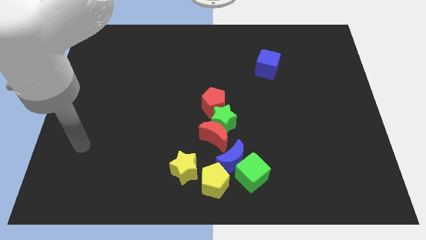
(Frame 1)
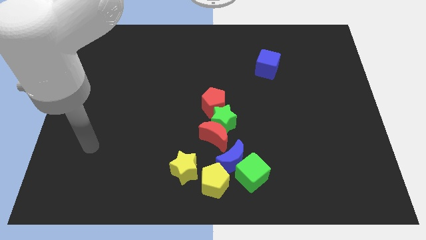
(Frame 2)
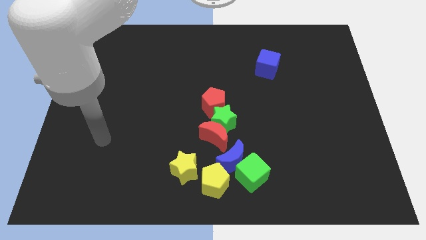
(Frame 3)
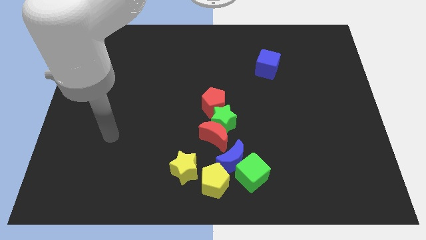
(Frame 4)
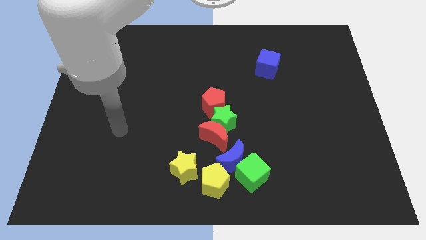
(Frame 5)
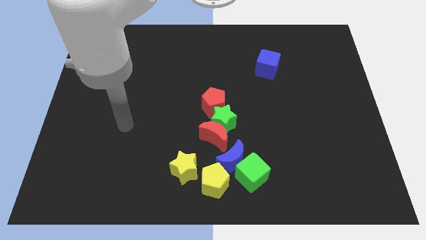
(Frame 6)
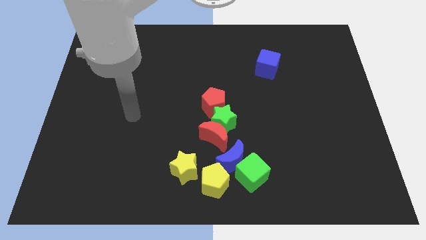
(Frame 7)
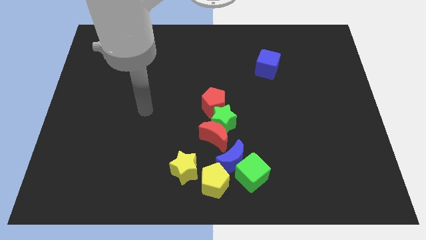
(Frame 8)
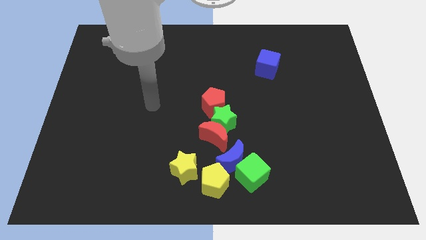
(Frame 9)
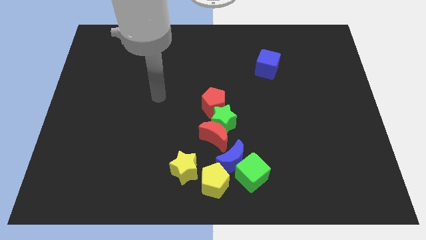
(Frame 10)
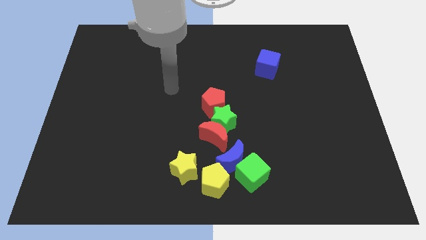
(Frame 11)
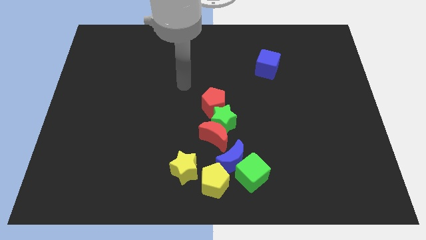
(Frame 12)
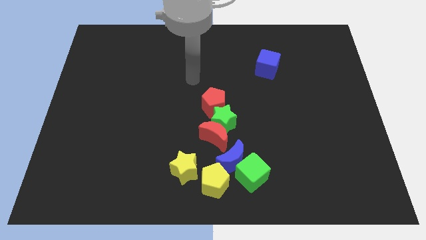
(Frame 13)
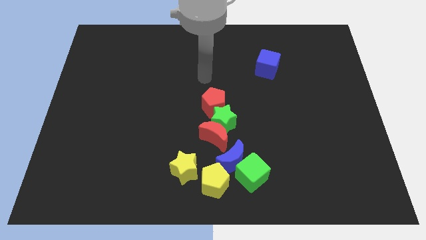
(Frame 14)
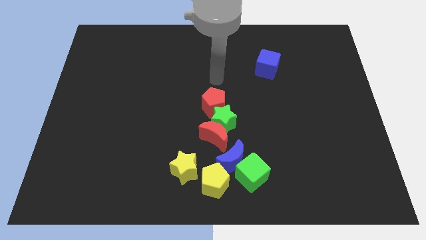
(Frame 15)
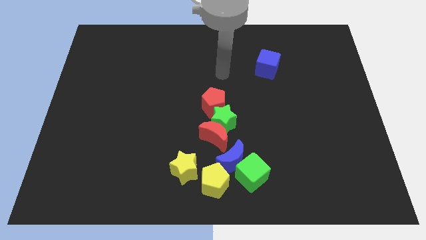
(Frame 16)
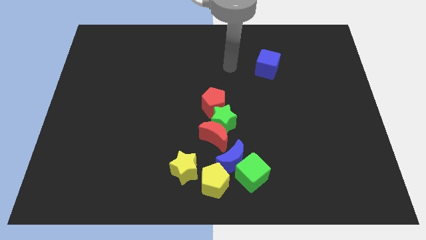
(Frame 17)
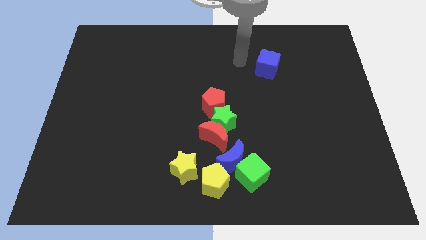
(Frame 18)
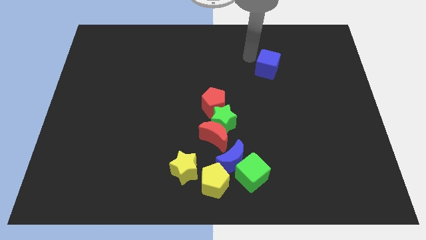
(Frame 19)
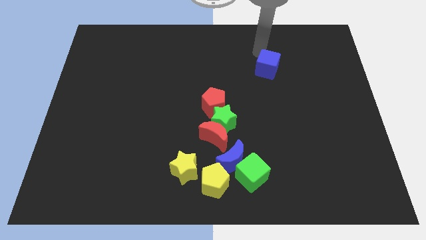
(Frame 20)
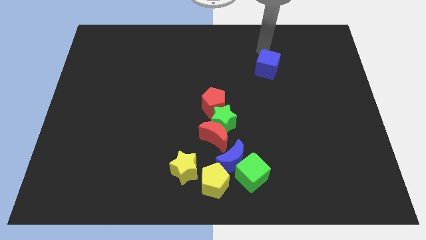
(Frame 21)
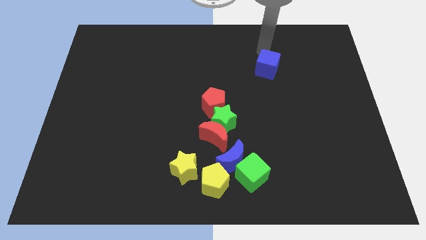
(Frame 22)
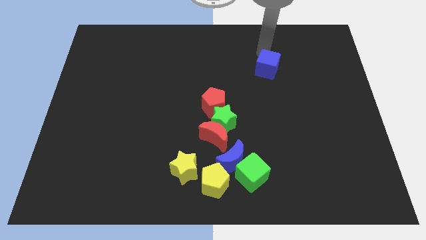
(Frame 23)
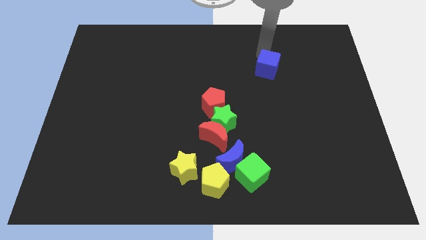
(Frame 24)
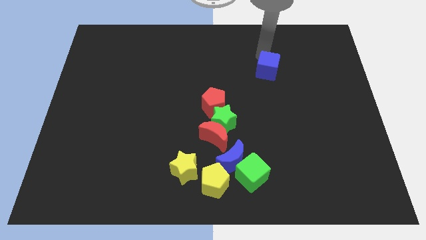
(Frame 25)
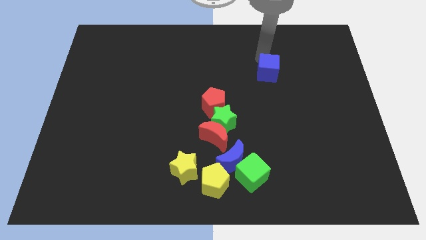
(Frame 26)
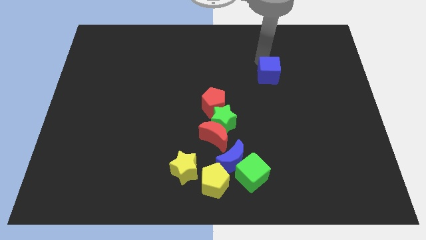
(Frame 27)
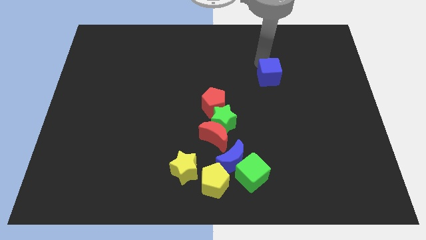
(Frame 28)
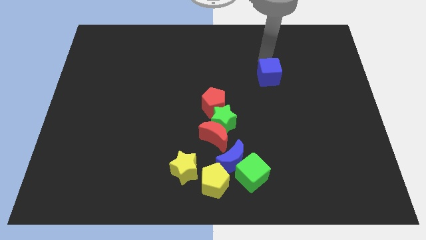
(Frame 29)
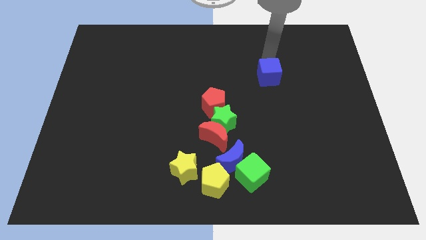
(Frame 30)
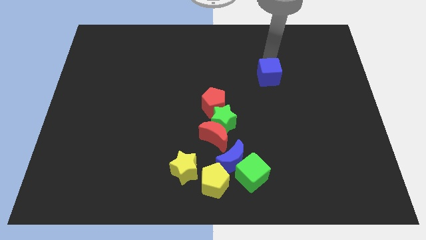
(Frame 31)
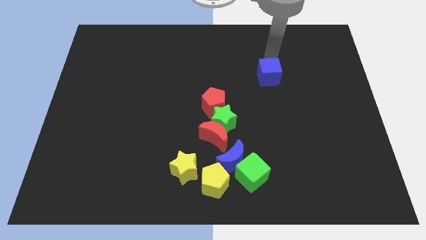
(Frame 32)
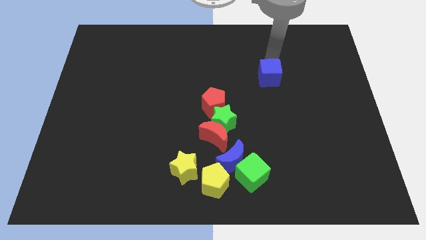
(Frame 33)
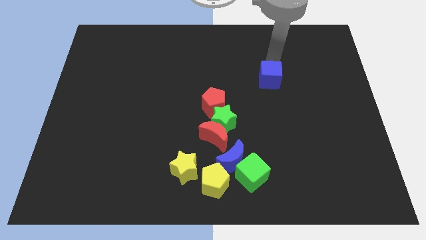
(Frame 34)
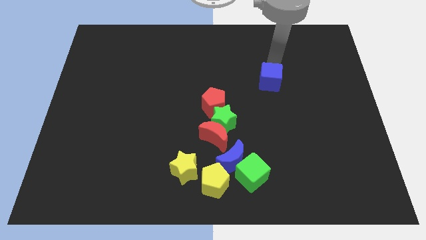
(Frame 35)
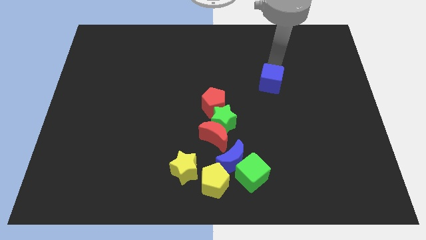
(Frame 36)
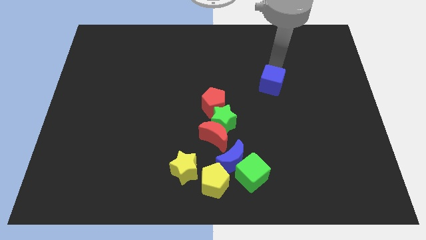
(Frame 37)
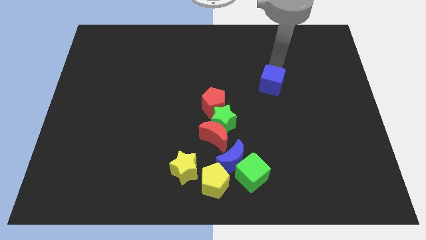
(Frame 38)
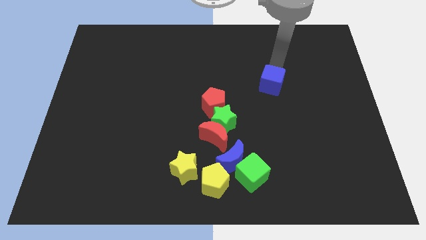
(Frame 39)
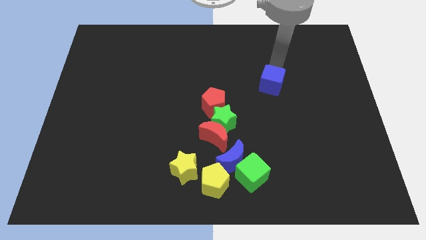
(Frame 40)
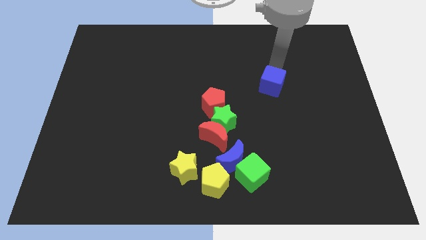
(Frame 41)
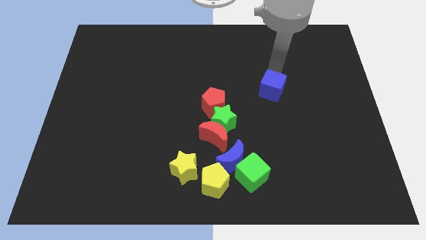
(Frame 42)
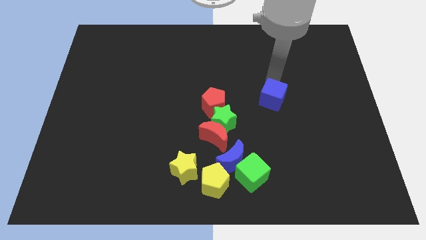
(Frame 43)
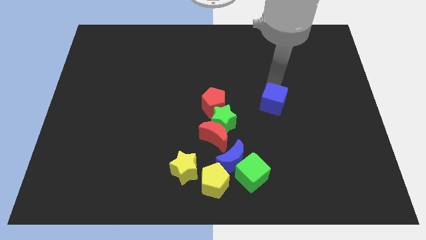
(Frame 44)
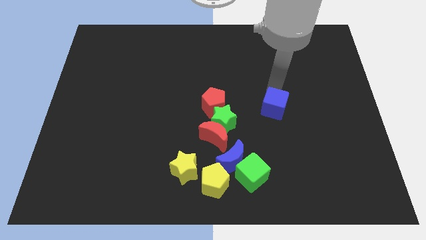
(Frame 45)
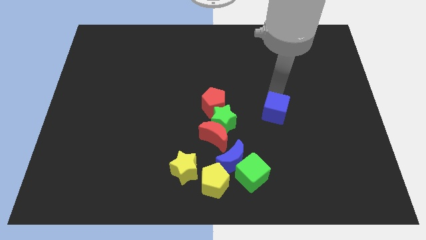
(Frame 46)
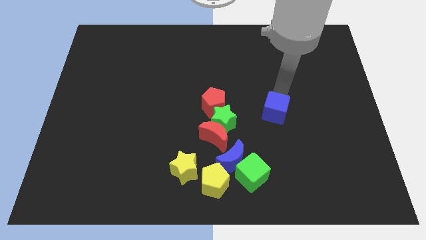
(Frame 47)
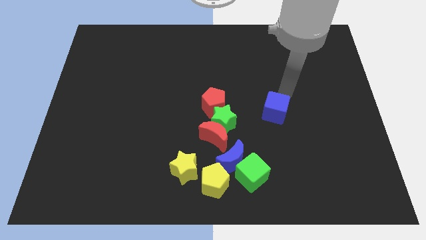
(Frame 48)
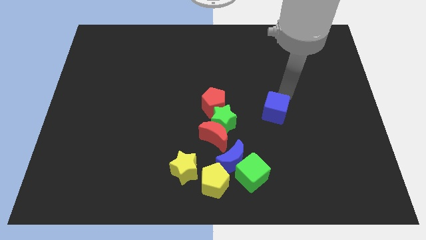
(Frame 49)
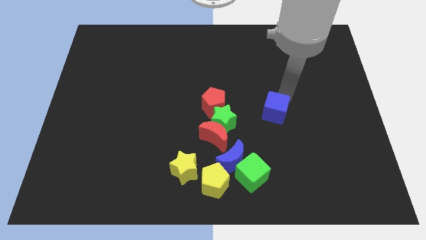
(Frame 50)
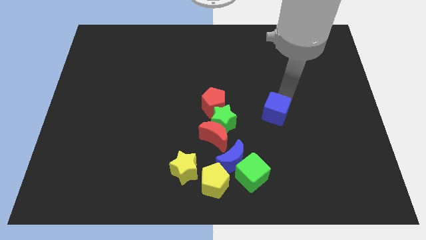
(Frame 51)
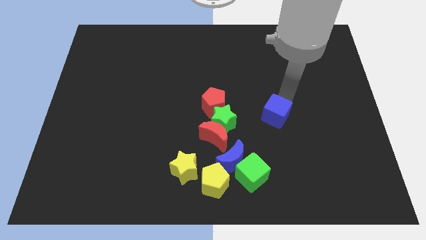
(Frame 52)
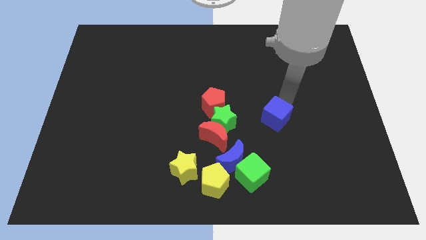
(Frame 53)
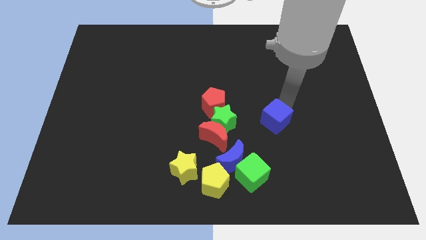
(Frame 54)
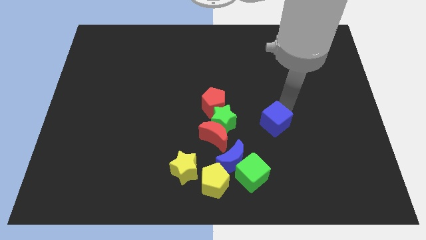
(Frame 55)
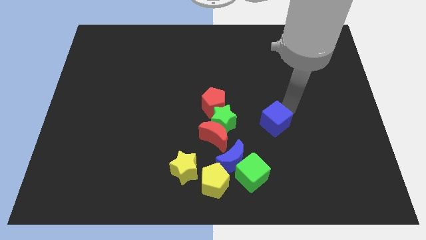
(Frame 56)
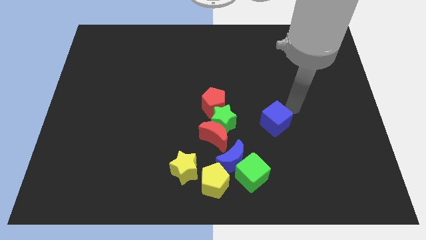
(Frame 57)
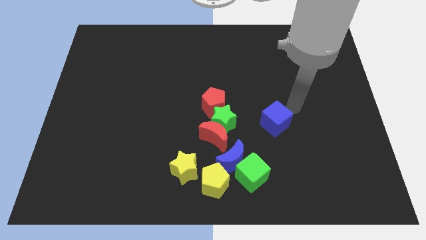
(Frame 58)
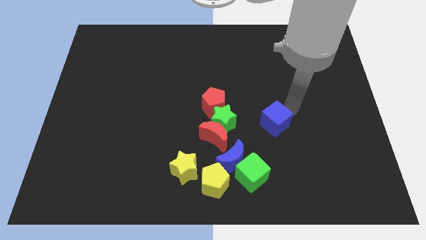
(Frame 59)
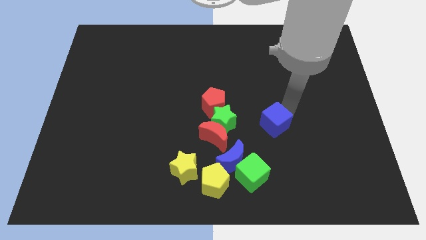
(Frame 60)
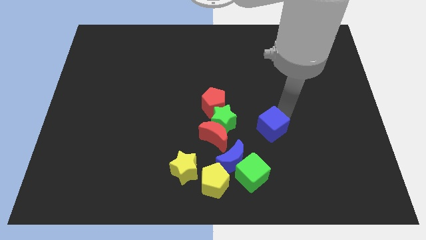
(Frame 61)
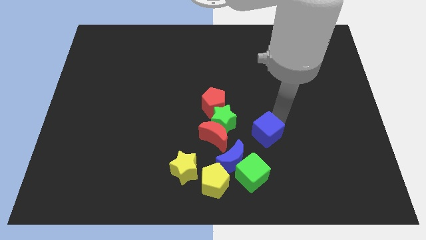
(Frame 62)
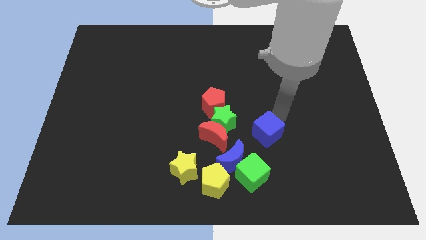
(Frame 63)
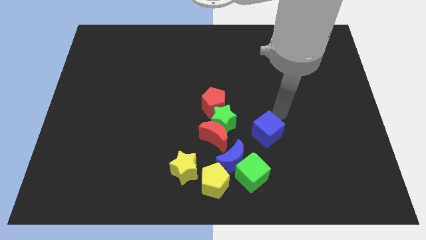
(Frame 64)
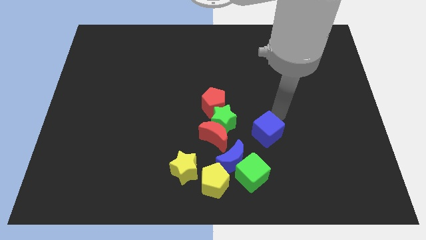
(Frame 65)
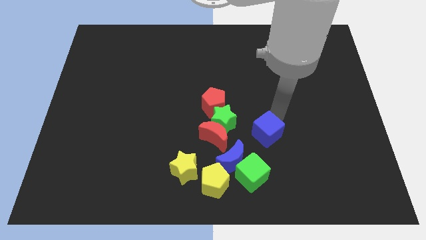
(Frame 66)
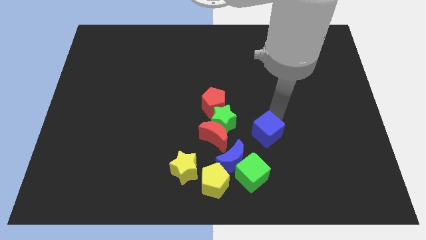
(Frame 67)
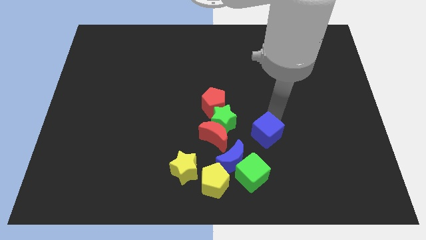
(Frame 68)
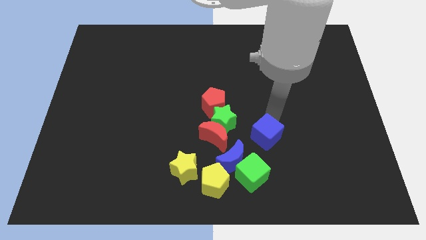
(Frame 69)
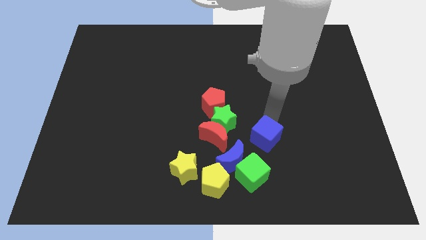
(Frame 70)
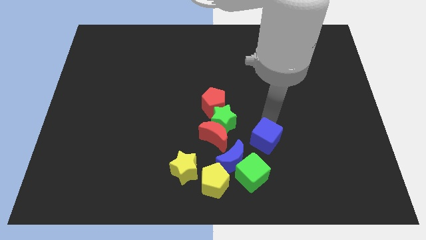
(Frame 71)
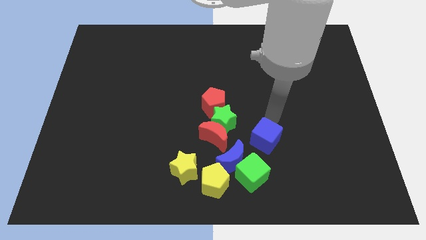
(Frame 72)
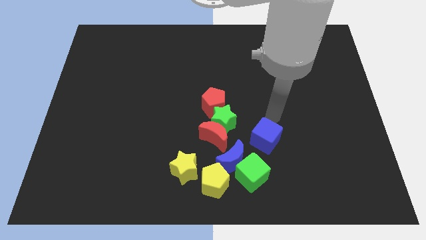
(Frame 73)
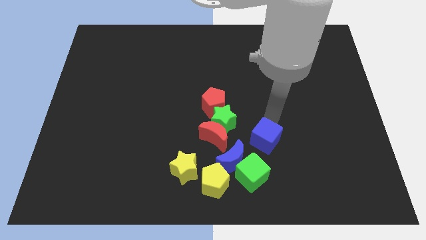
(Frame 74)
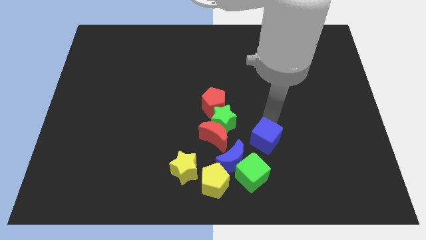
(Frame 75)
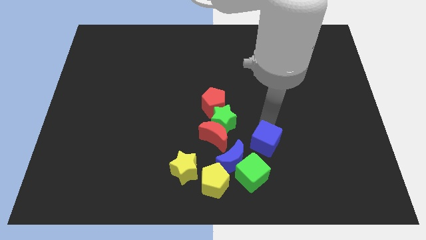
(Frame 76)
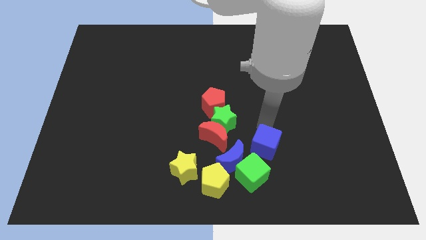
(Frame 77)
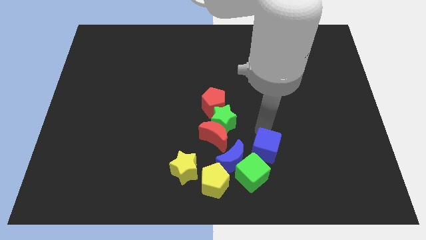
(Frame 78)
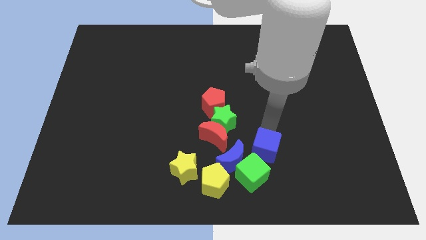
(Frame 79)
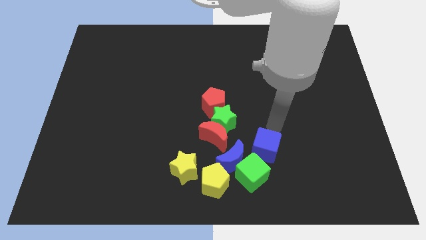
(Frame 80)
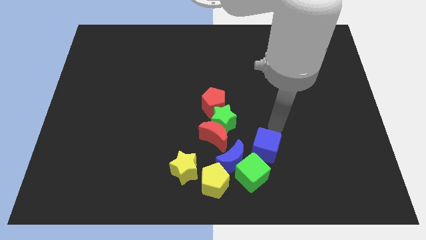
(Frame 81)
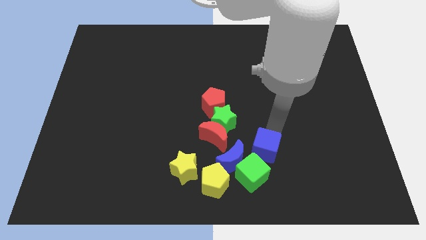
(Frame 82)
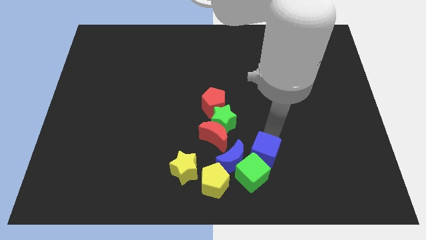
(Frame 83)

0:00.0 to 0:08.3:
put the blue cube close to the green cube
